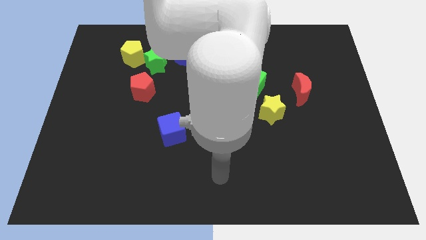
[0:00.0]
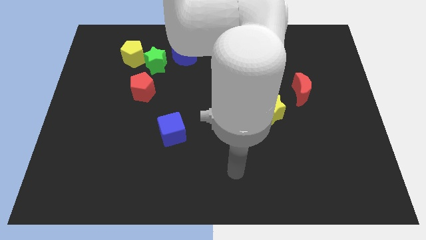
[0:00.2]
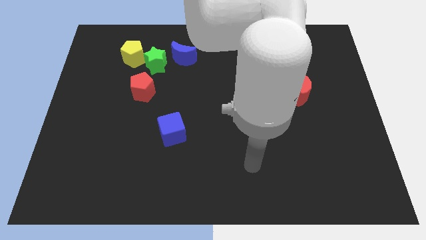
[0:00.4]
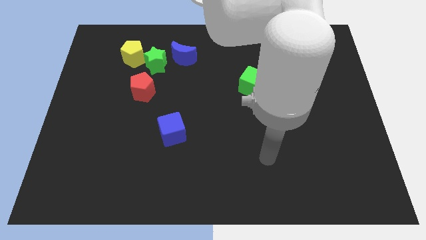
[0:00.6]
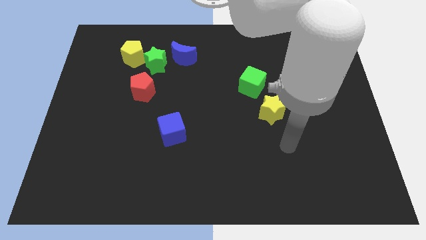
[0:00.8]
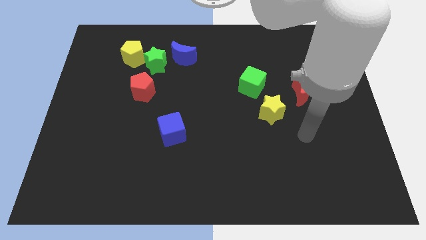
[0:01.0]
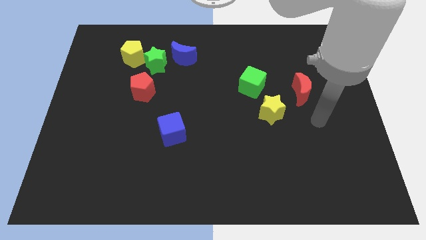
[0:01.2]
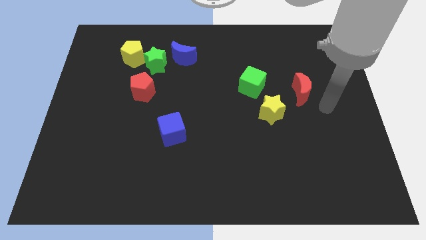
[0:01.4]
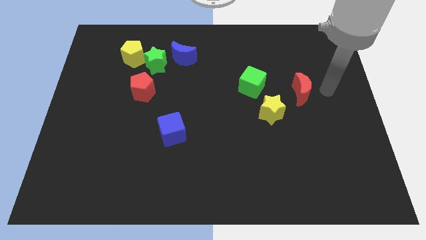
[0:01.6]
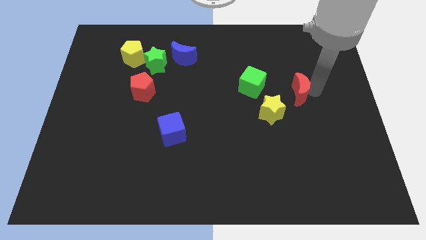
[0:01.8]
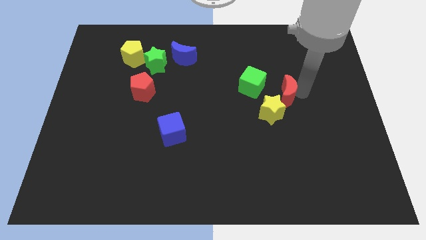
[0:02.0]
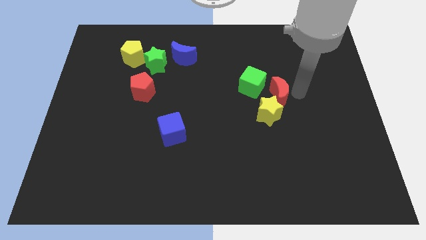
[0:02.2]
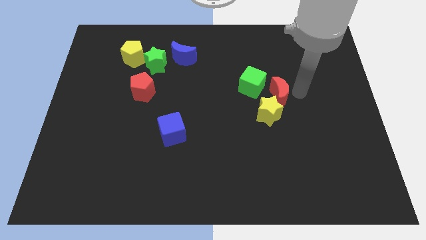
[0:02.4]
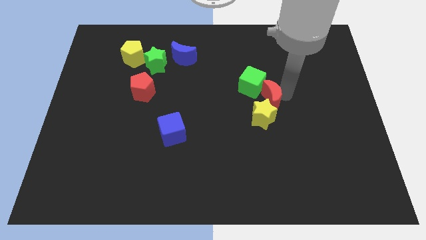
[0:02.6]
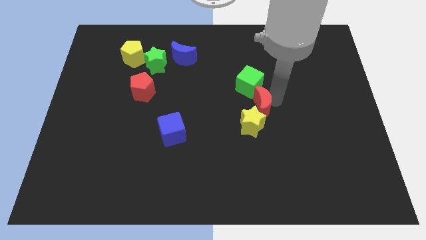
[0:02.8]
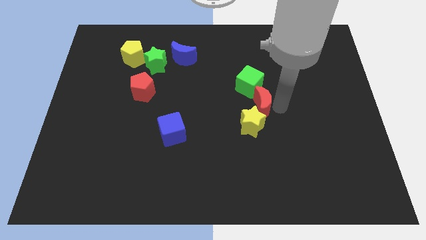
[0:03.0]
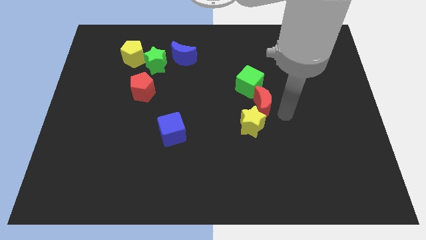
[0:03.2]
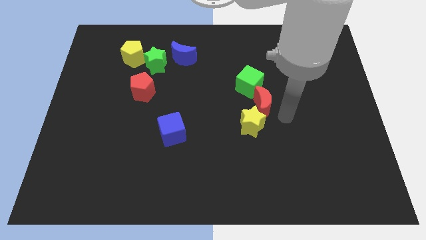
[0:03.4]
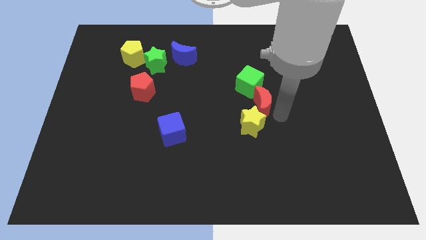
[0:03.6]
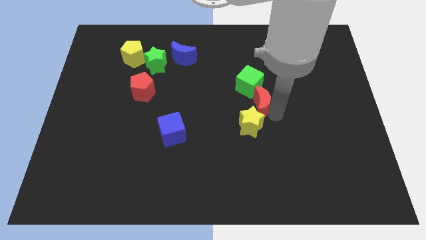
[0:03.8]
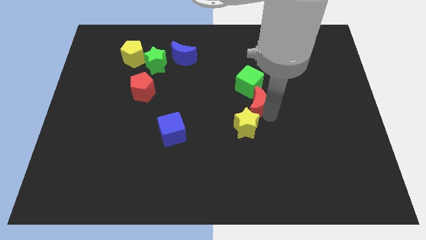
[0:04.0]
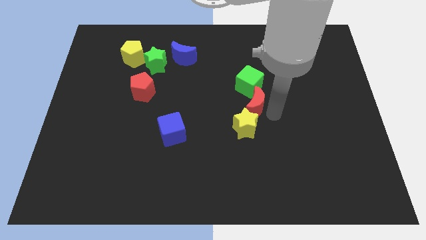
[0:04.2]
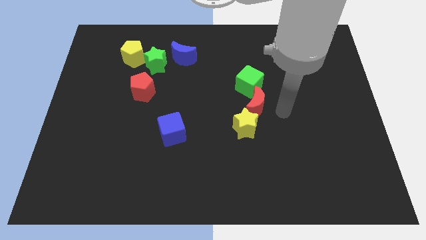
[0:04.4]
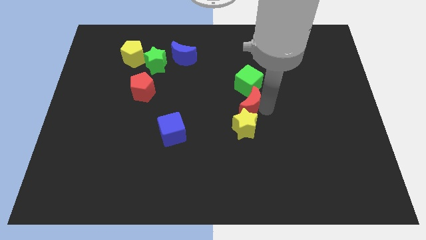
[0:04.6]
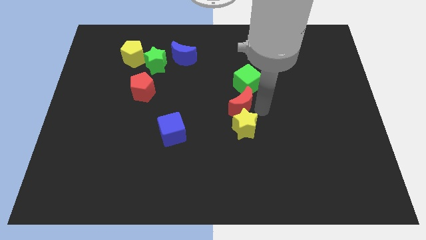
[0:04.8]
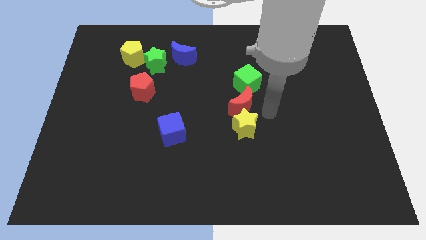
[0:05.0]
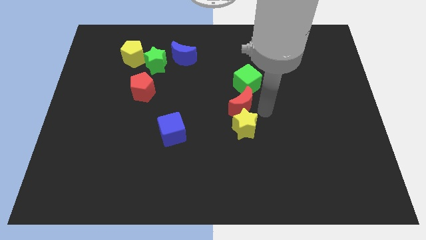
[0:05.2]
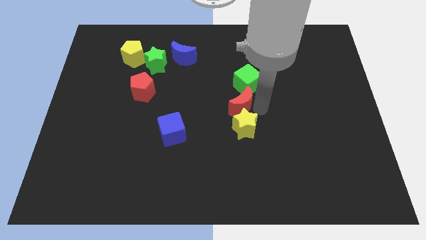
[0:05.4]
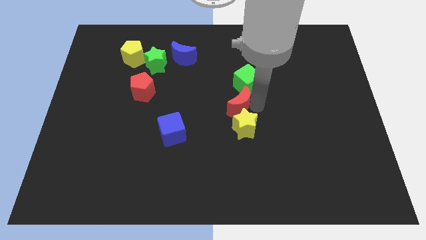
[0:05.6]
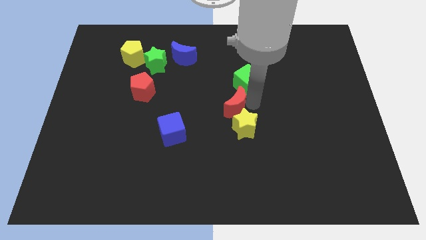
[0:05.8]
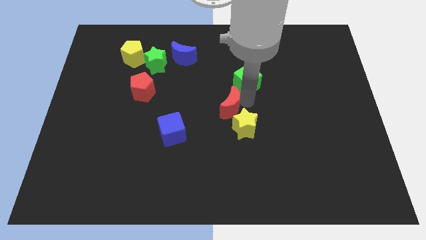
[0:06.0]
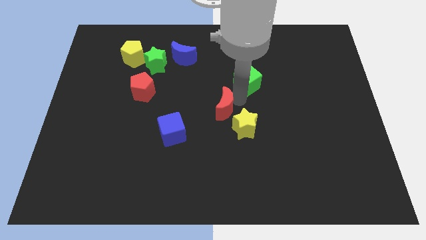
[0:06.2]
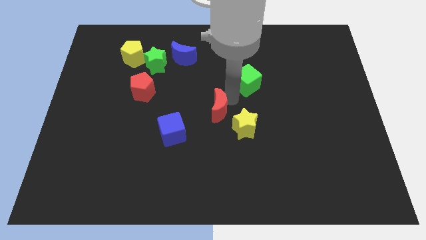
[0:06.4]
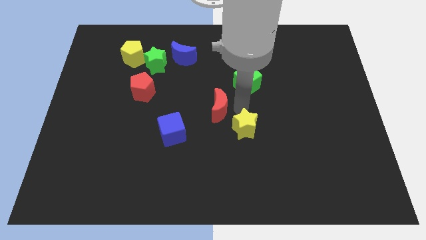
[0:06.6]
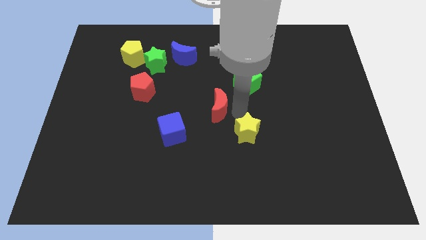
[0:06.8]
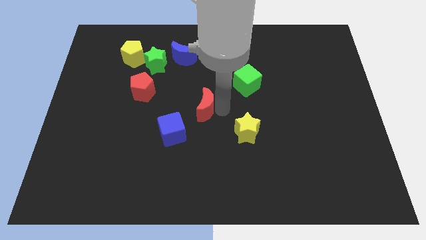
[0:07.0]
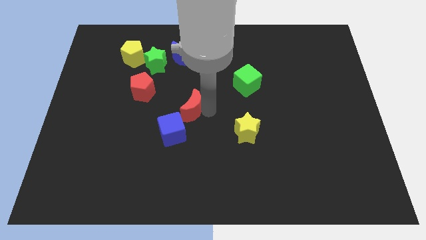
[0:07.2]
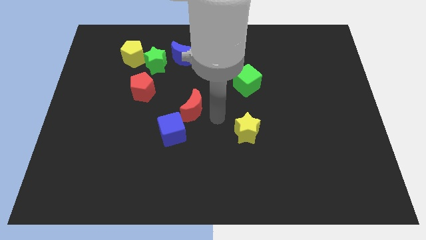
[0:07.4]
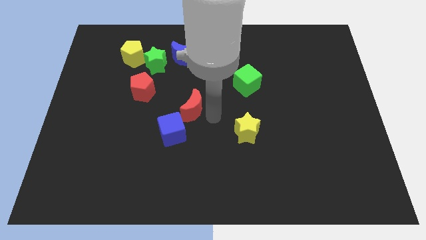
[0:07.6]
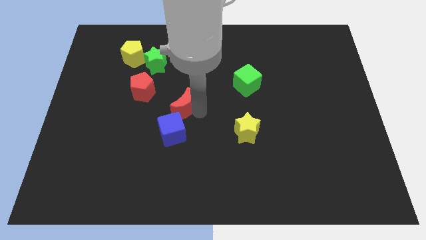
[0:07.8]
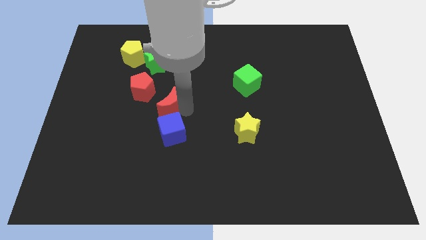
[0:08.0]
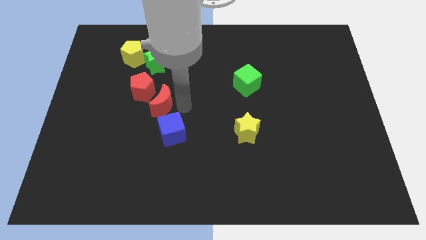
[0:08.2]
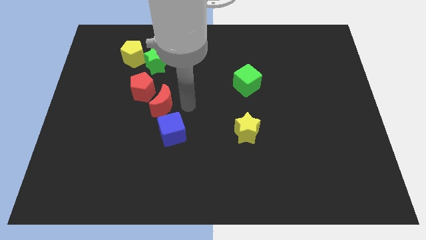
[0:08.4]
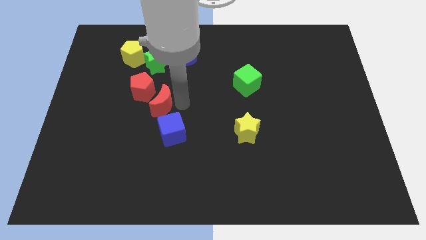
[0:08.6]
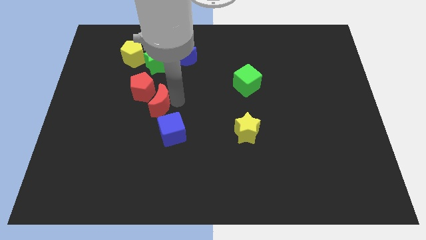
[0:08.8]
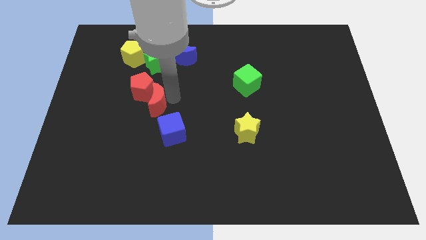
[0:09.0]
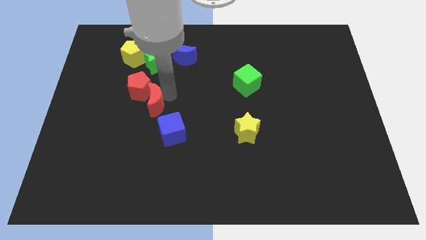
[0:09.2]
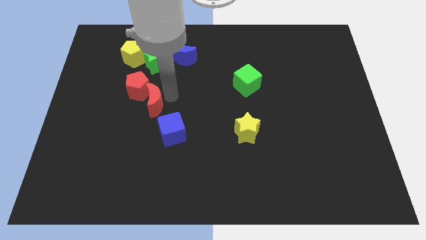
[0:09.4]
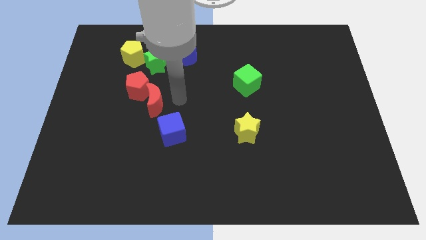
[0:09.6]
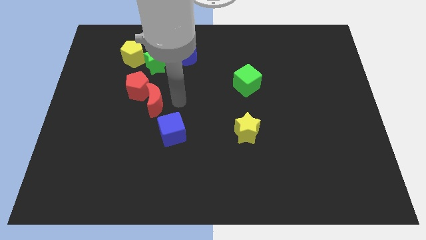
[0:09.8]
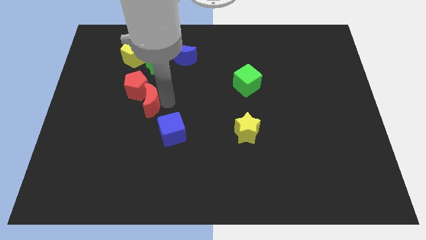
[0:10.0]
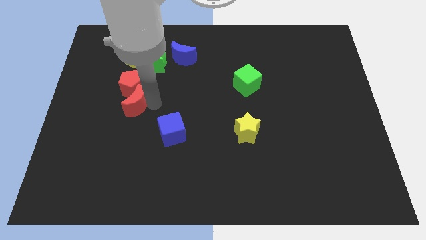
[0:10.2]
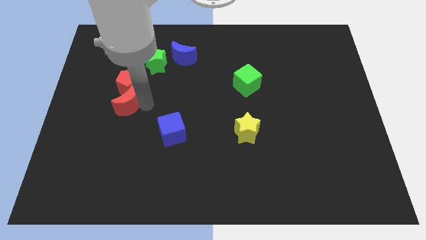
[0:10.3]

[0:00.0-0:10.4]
push the red moon to the bottom left of the red pentagon

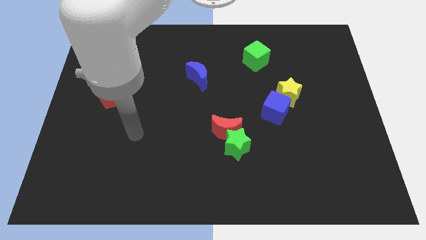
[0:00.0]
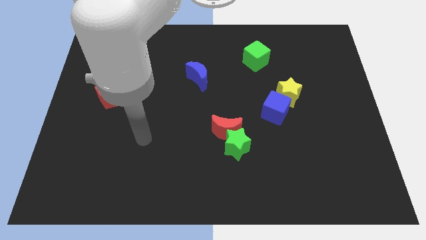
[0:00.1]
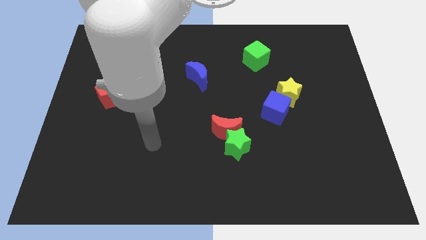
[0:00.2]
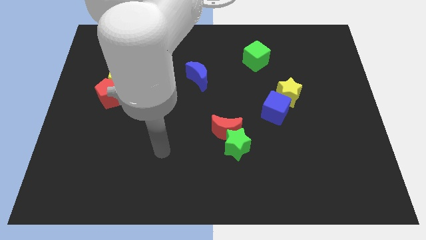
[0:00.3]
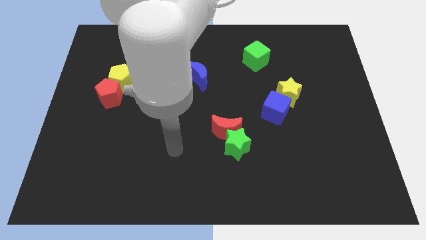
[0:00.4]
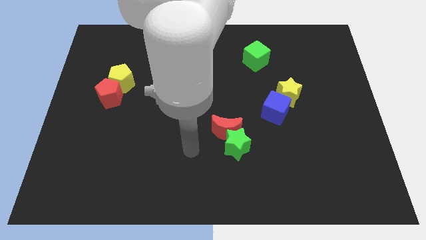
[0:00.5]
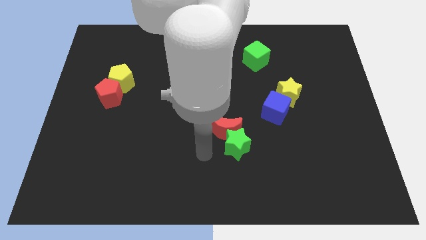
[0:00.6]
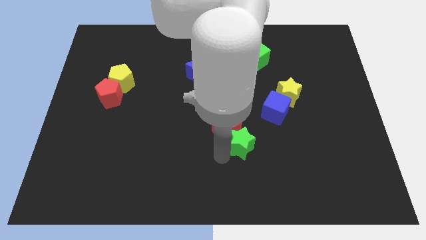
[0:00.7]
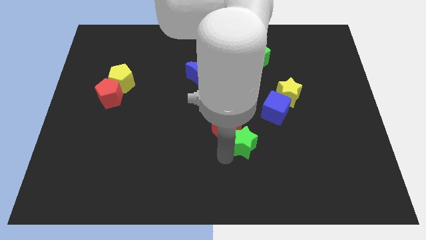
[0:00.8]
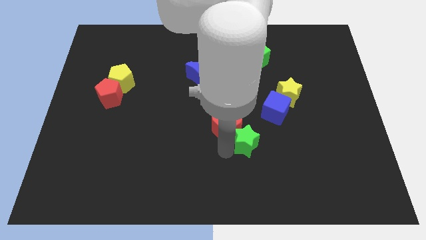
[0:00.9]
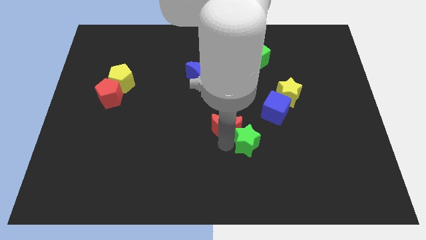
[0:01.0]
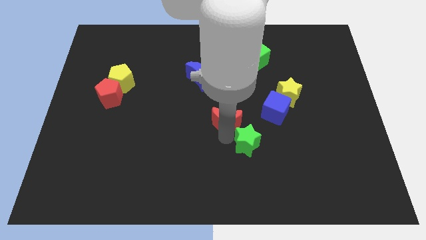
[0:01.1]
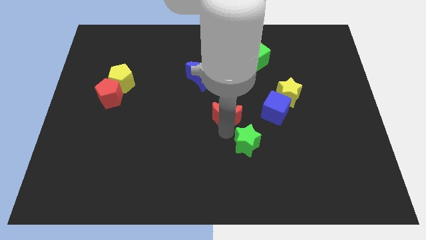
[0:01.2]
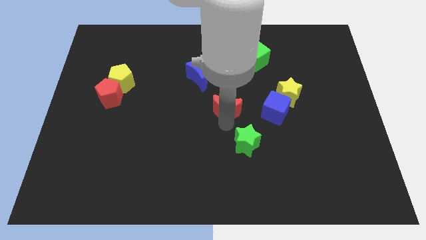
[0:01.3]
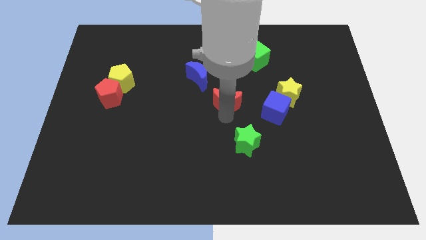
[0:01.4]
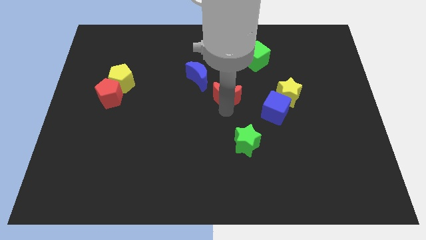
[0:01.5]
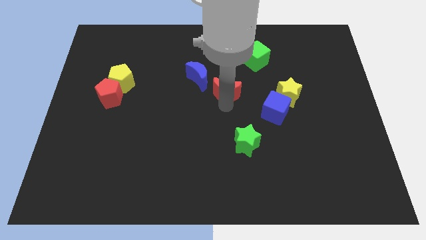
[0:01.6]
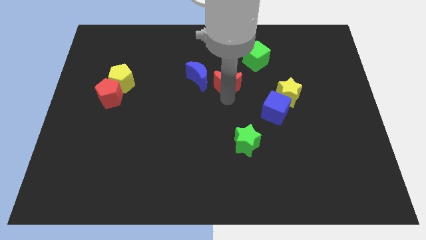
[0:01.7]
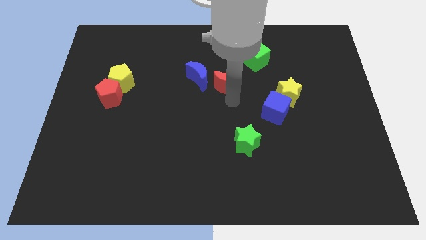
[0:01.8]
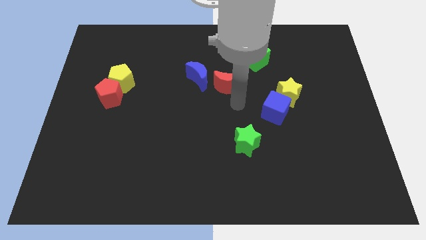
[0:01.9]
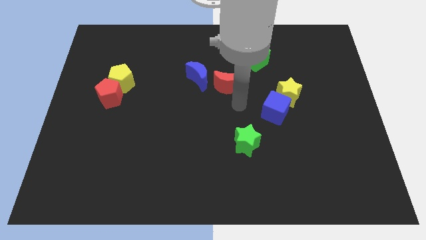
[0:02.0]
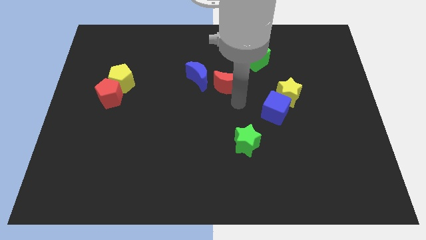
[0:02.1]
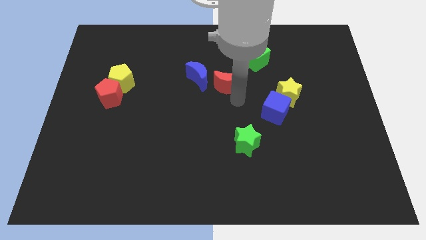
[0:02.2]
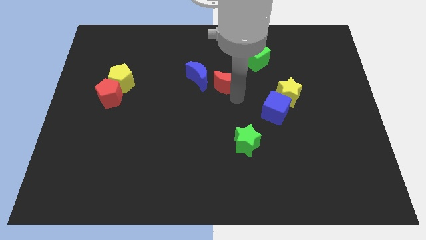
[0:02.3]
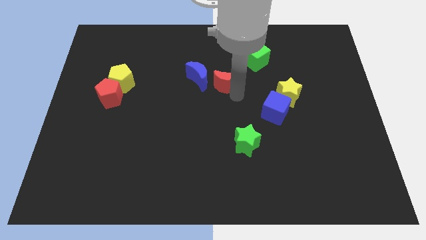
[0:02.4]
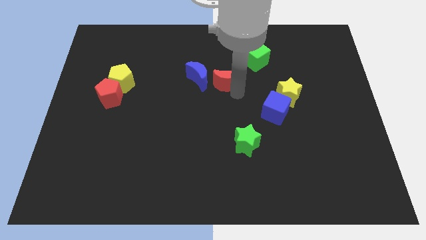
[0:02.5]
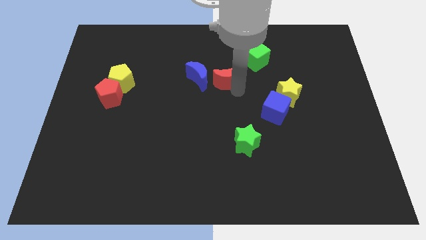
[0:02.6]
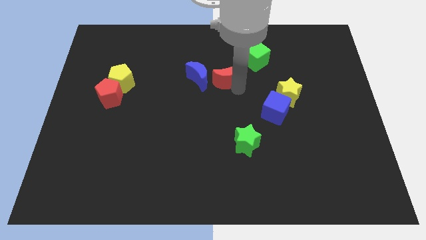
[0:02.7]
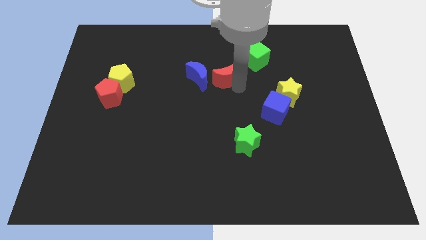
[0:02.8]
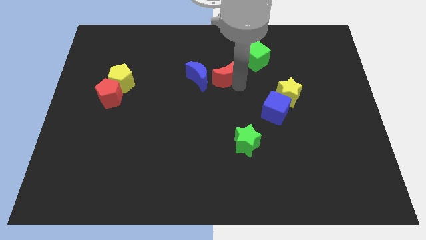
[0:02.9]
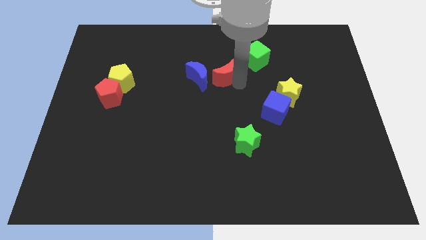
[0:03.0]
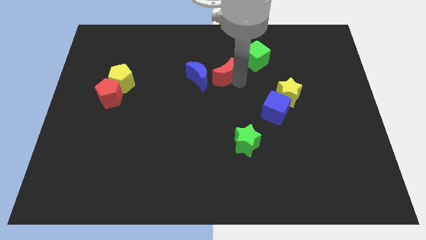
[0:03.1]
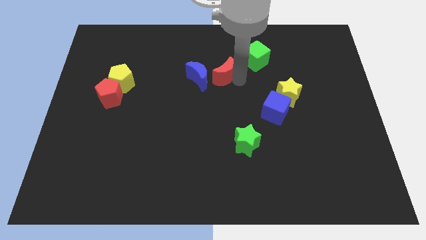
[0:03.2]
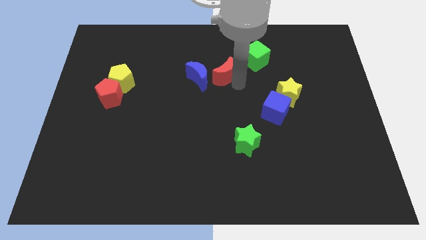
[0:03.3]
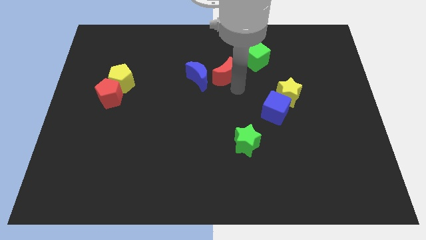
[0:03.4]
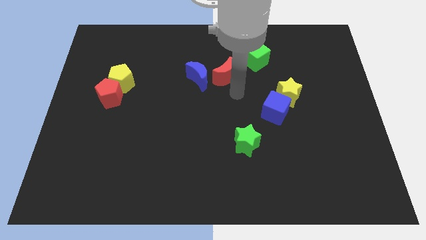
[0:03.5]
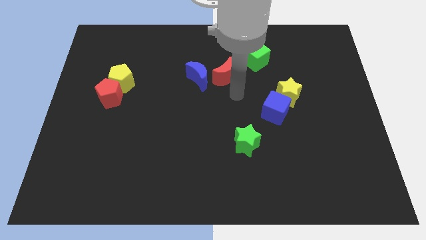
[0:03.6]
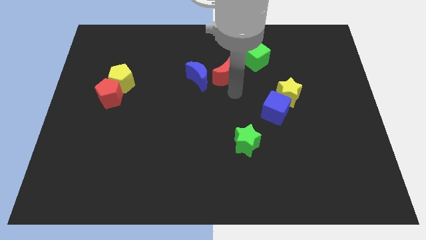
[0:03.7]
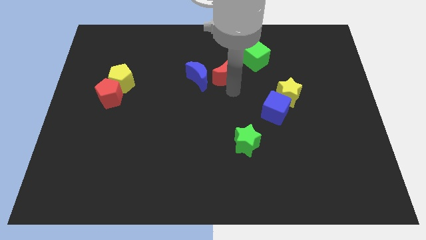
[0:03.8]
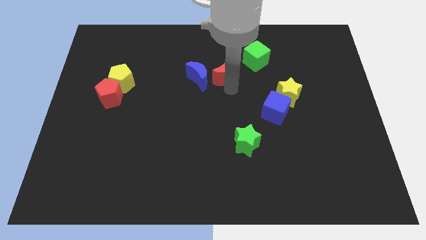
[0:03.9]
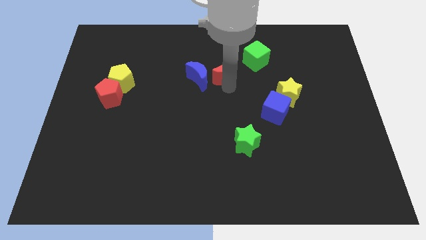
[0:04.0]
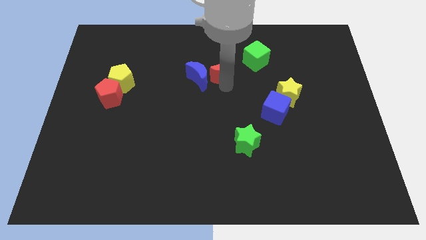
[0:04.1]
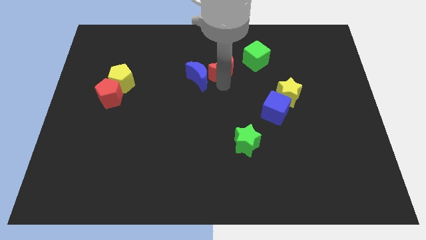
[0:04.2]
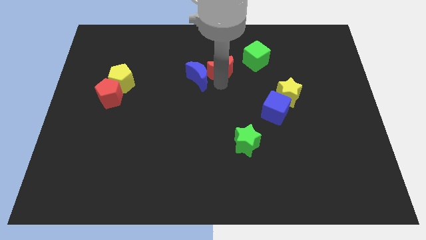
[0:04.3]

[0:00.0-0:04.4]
slide the red moon to the left side of the green cube
